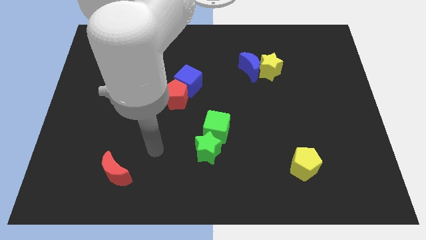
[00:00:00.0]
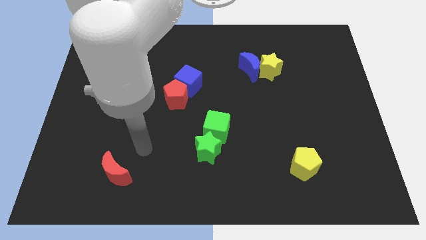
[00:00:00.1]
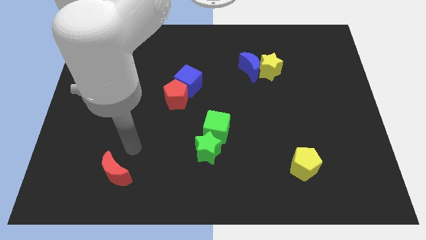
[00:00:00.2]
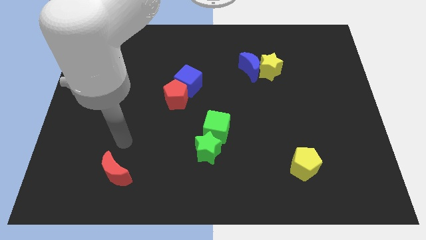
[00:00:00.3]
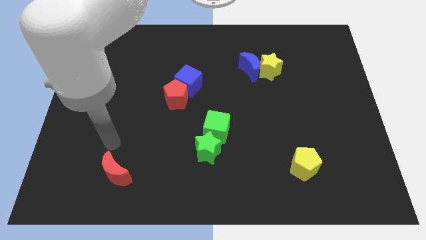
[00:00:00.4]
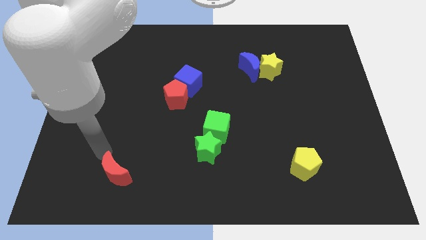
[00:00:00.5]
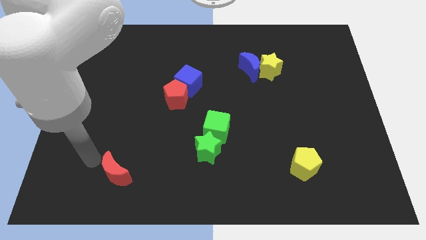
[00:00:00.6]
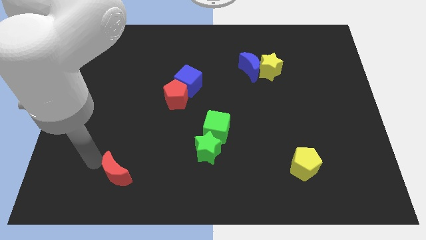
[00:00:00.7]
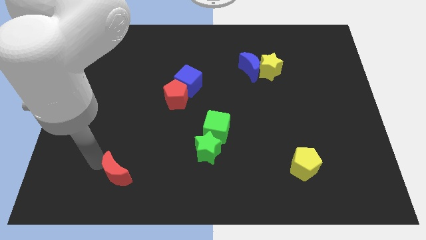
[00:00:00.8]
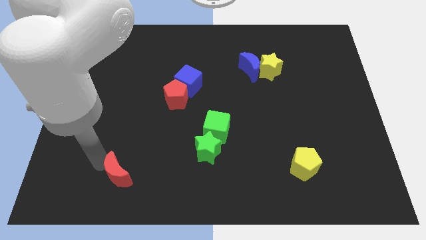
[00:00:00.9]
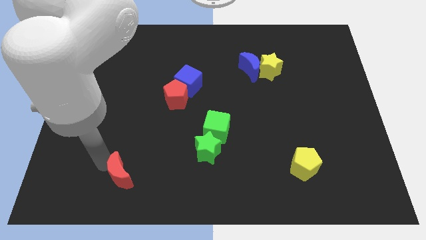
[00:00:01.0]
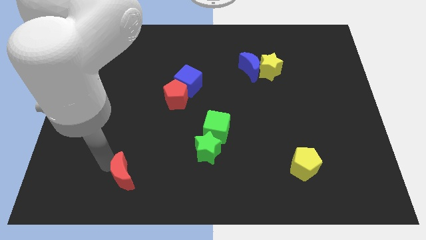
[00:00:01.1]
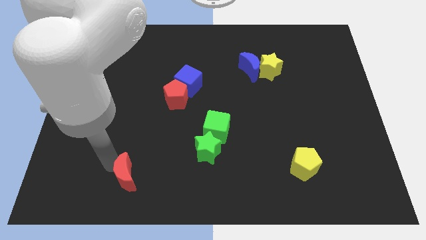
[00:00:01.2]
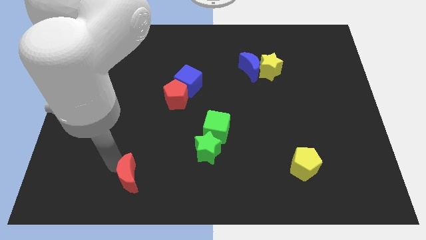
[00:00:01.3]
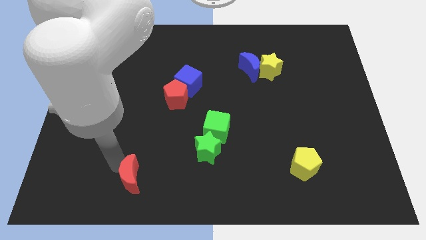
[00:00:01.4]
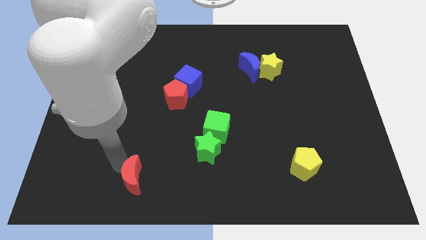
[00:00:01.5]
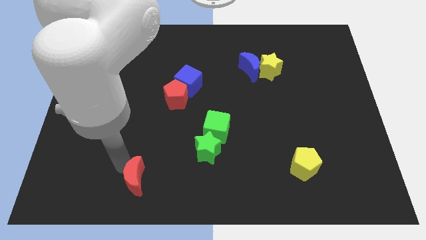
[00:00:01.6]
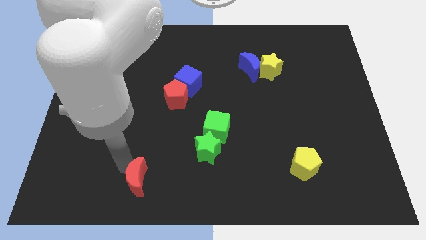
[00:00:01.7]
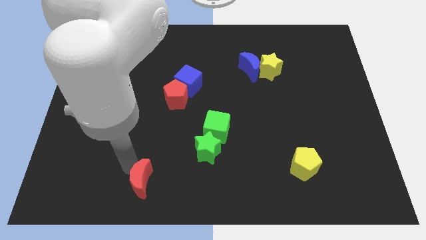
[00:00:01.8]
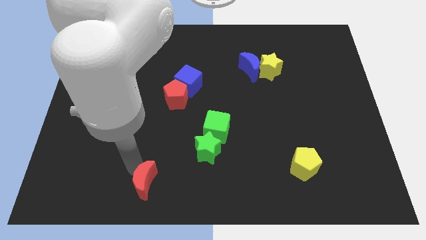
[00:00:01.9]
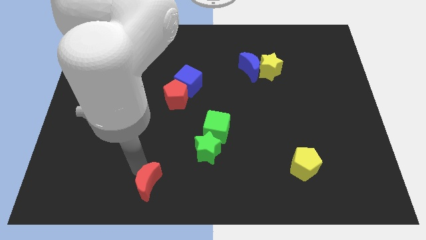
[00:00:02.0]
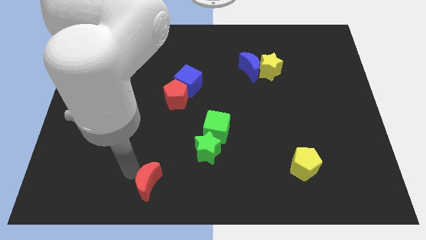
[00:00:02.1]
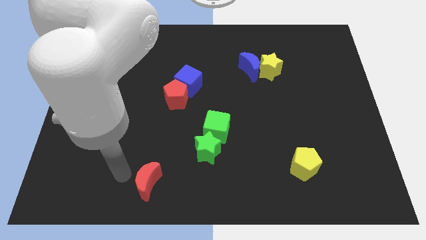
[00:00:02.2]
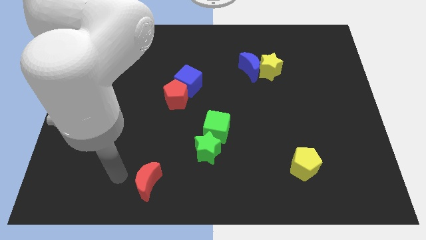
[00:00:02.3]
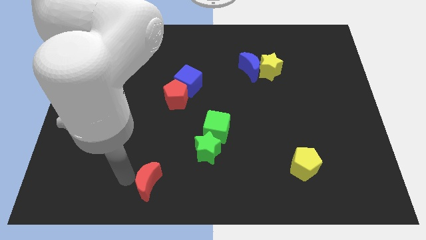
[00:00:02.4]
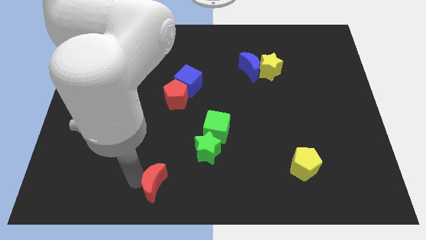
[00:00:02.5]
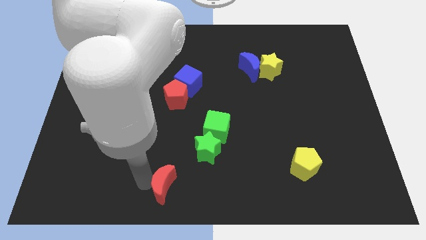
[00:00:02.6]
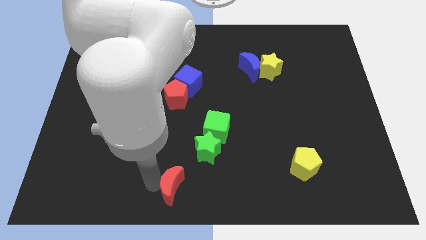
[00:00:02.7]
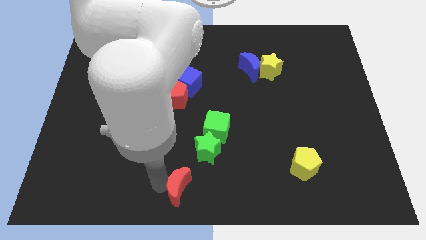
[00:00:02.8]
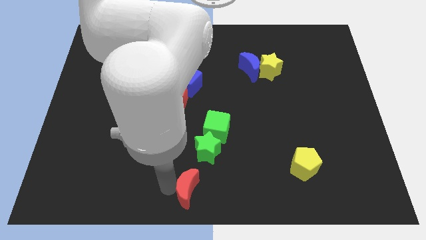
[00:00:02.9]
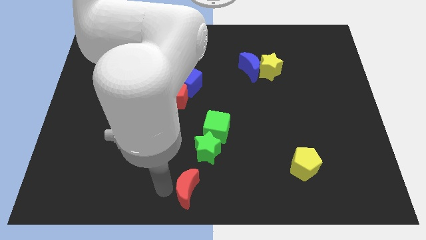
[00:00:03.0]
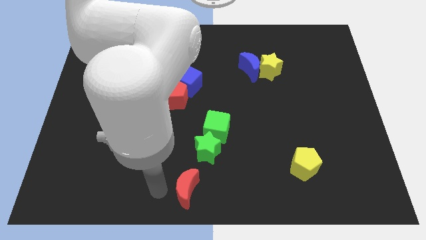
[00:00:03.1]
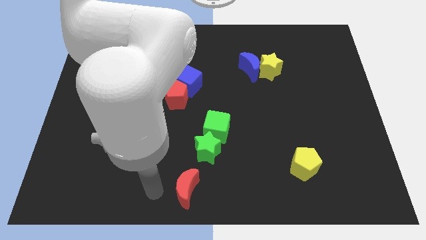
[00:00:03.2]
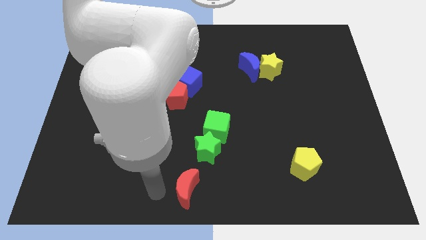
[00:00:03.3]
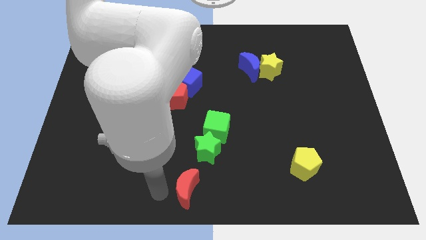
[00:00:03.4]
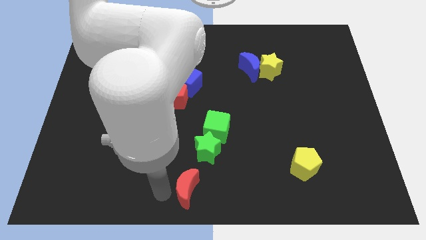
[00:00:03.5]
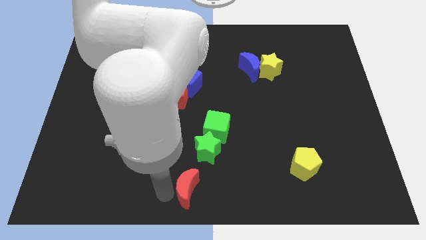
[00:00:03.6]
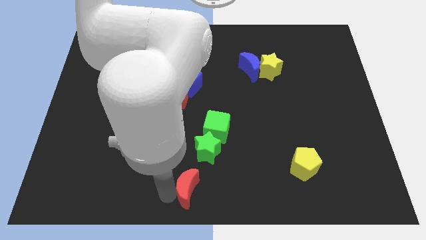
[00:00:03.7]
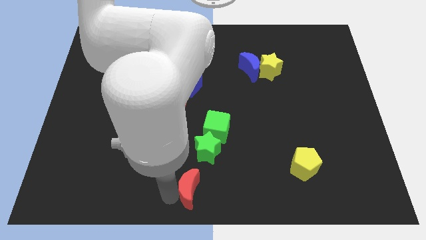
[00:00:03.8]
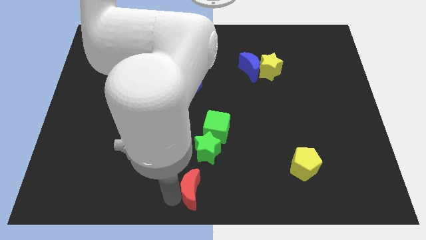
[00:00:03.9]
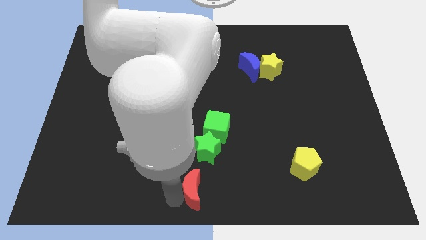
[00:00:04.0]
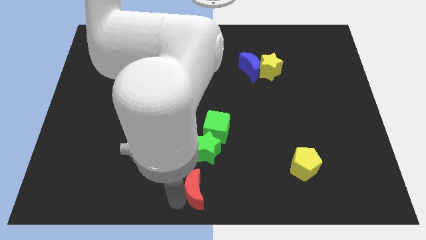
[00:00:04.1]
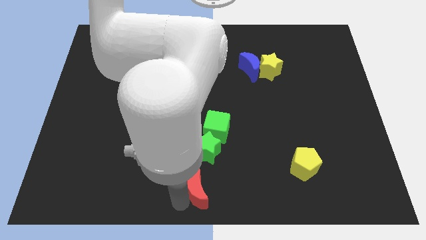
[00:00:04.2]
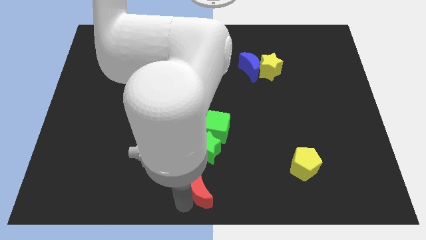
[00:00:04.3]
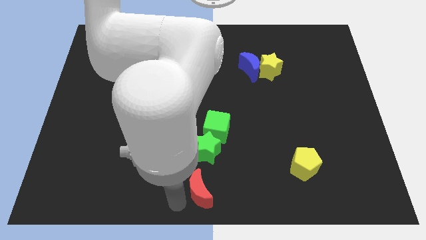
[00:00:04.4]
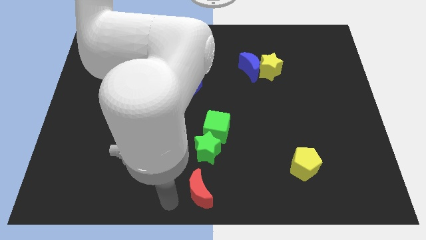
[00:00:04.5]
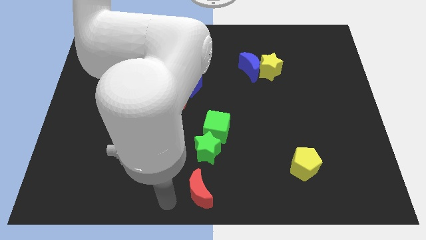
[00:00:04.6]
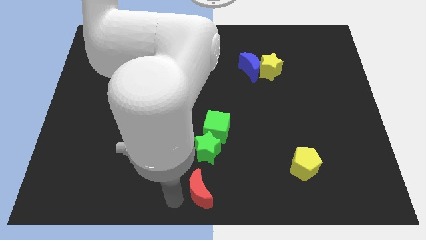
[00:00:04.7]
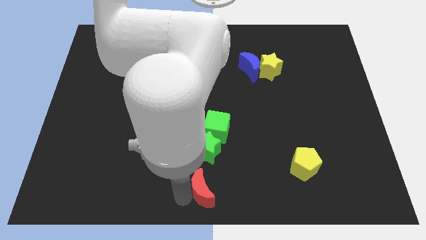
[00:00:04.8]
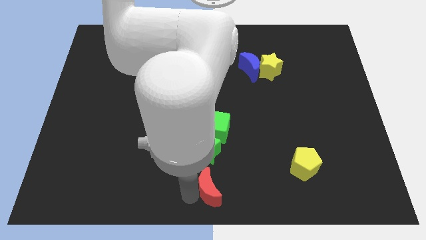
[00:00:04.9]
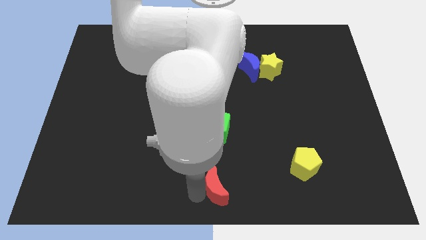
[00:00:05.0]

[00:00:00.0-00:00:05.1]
move the red moon to the right

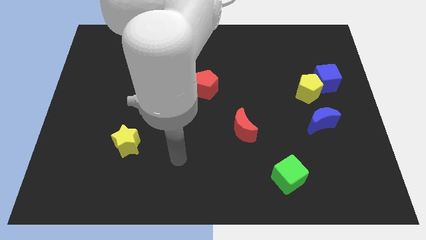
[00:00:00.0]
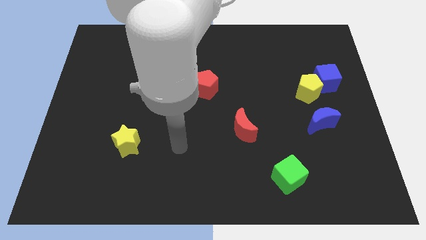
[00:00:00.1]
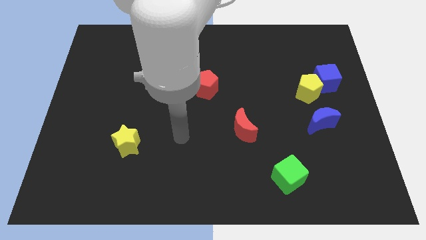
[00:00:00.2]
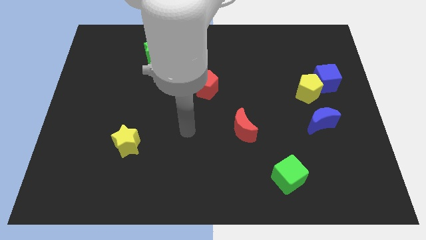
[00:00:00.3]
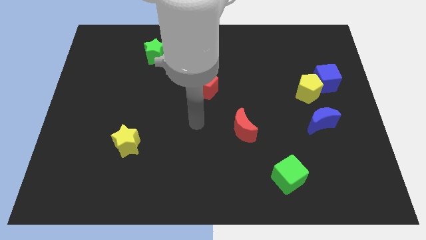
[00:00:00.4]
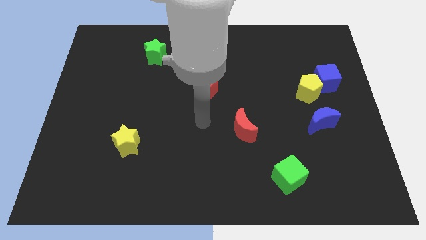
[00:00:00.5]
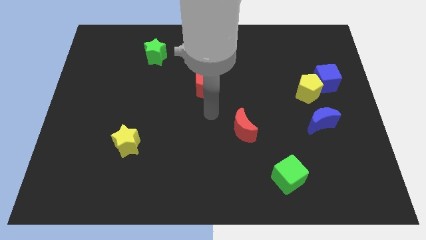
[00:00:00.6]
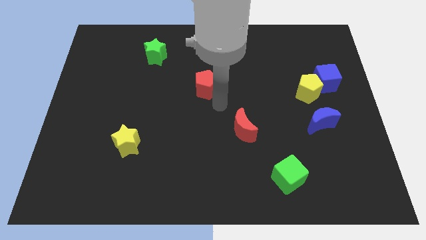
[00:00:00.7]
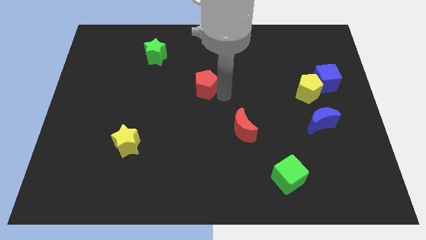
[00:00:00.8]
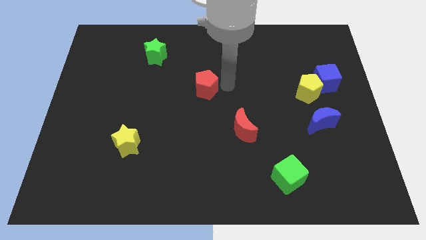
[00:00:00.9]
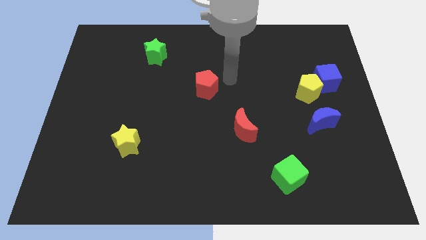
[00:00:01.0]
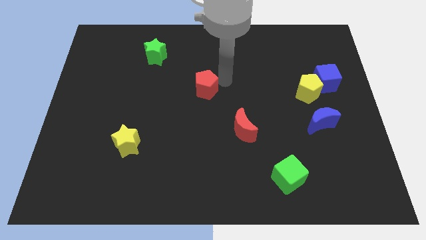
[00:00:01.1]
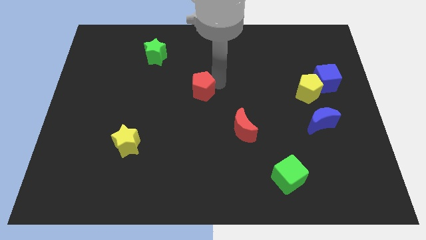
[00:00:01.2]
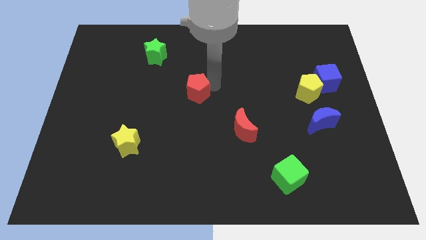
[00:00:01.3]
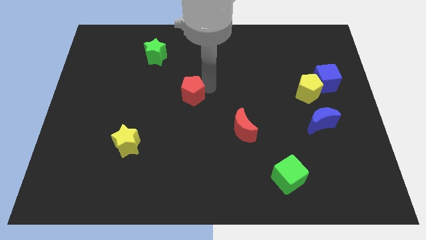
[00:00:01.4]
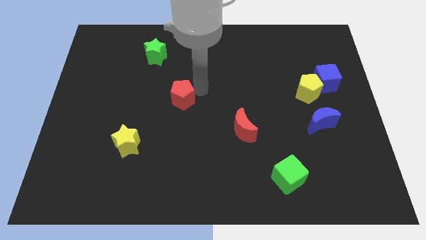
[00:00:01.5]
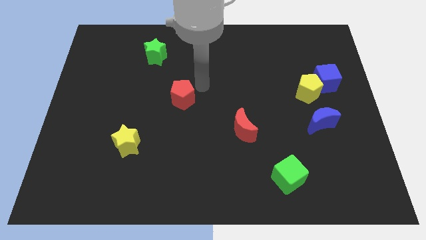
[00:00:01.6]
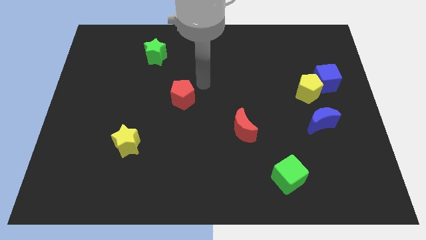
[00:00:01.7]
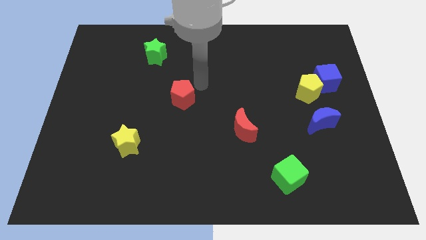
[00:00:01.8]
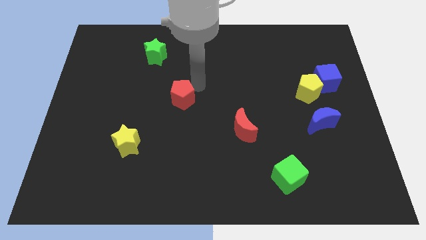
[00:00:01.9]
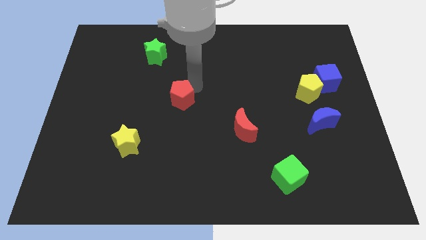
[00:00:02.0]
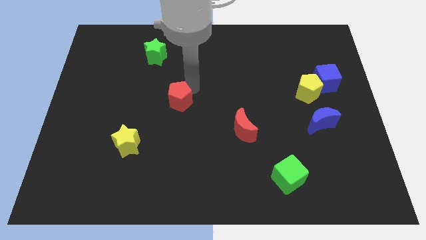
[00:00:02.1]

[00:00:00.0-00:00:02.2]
slightly push the red pentagon downwards and then to the left

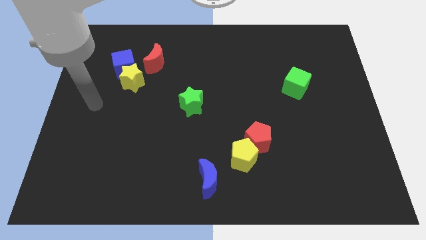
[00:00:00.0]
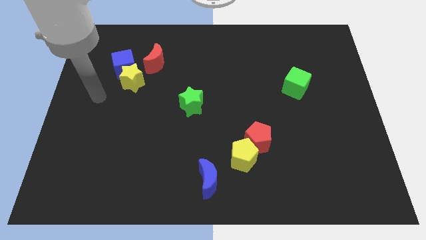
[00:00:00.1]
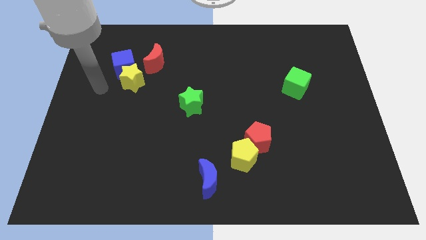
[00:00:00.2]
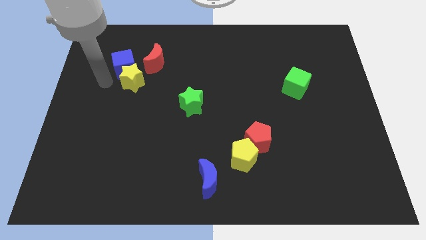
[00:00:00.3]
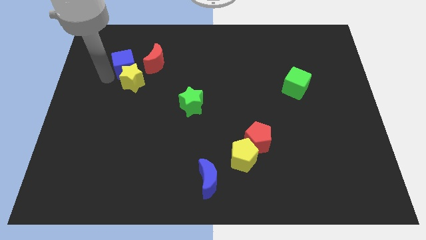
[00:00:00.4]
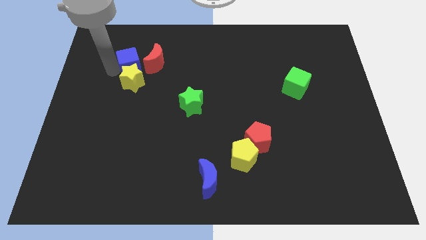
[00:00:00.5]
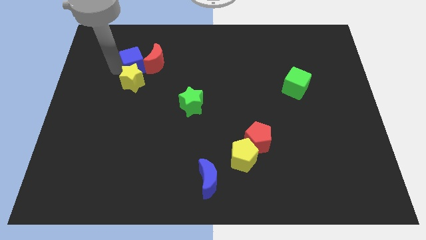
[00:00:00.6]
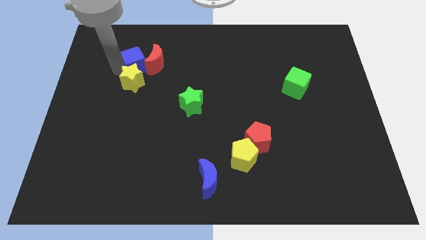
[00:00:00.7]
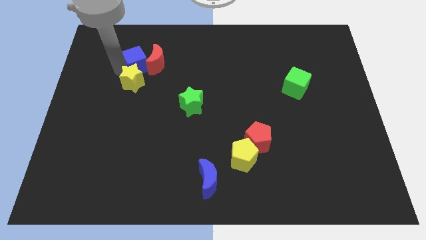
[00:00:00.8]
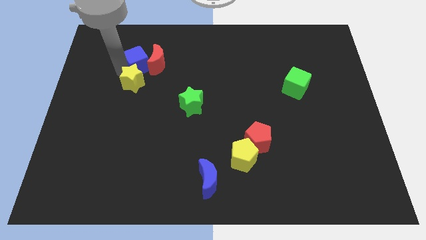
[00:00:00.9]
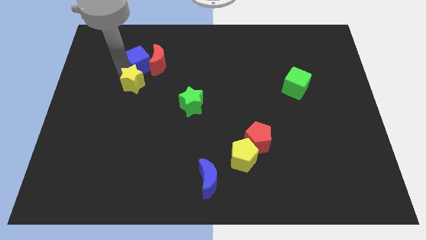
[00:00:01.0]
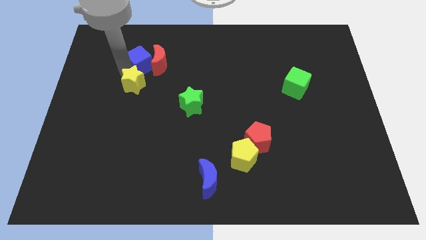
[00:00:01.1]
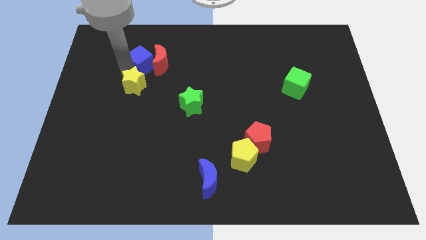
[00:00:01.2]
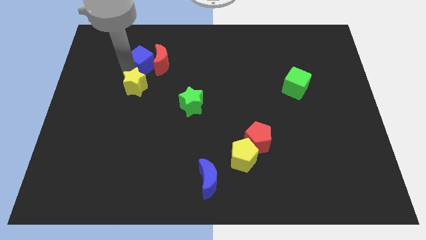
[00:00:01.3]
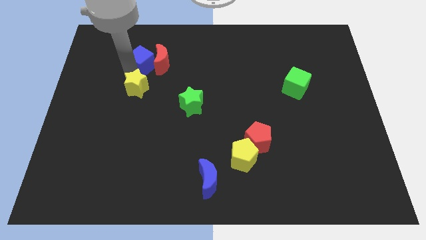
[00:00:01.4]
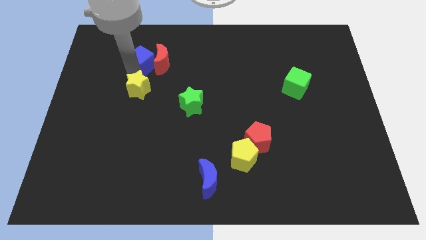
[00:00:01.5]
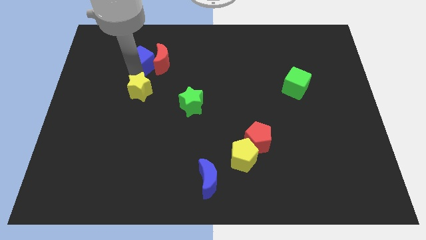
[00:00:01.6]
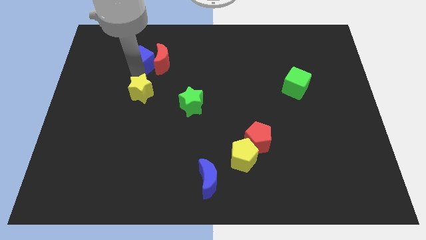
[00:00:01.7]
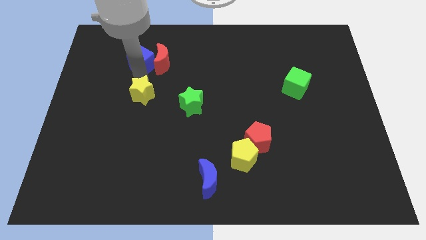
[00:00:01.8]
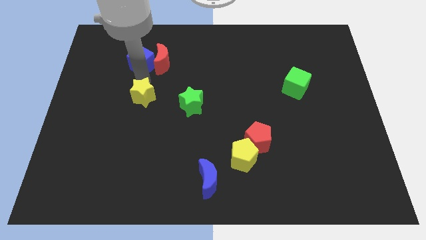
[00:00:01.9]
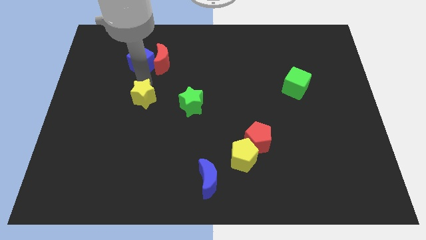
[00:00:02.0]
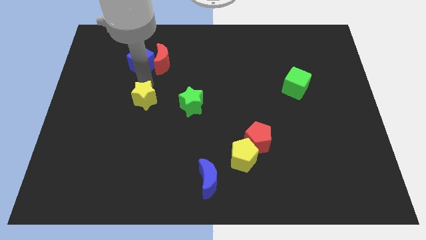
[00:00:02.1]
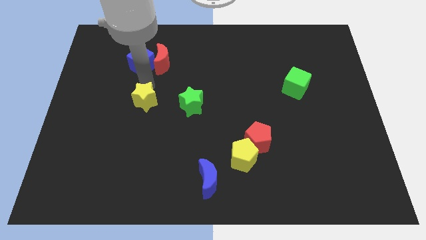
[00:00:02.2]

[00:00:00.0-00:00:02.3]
slightly push the yellow star downwards and right
